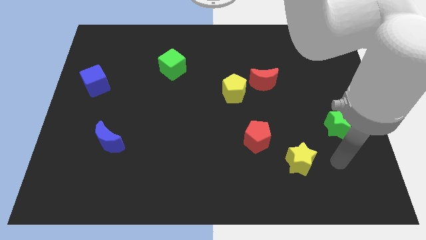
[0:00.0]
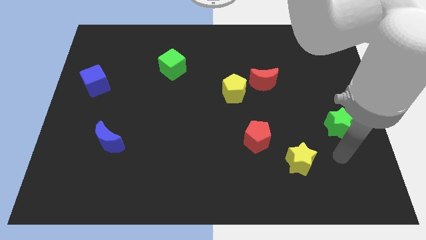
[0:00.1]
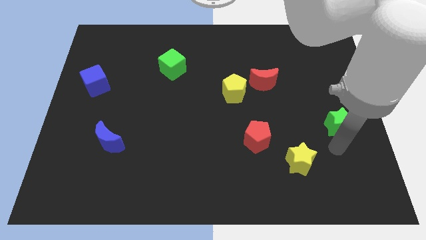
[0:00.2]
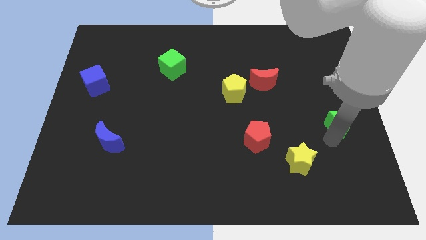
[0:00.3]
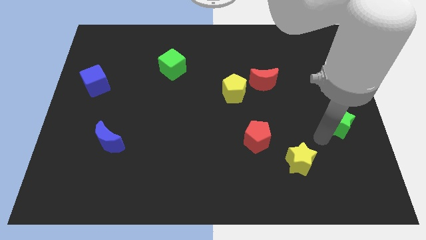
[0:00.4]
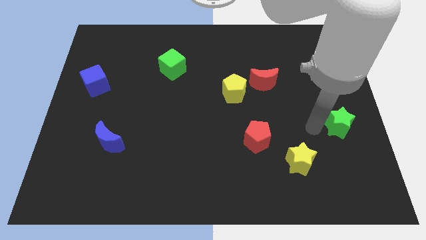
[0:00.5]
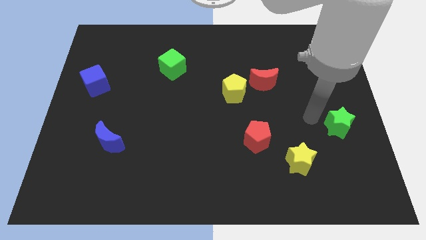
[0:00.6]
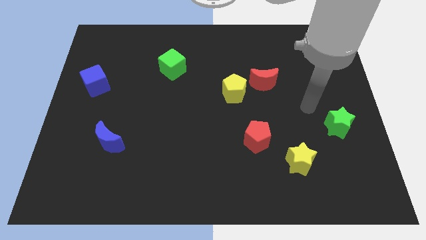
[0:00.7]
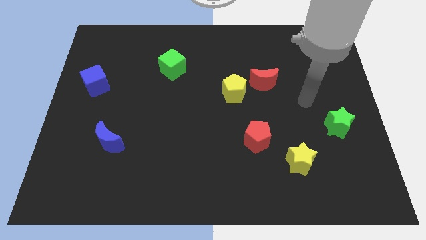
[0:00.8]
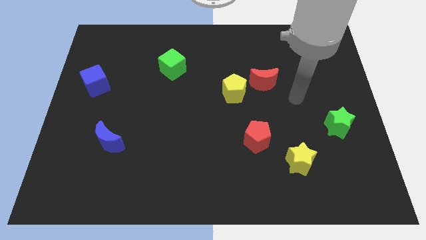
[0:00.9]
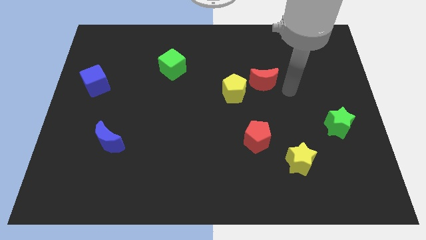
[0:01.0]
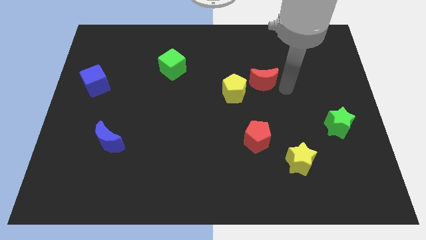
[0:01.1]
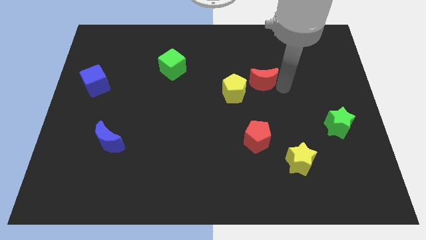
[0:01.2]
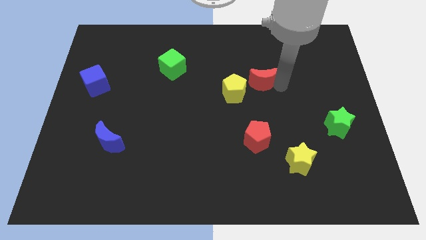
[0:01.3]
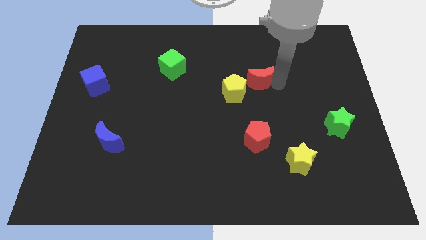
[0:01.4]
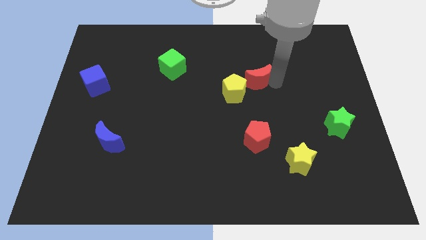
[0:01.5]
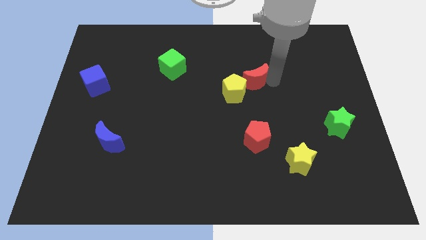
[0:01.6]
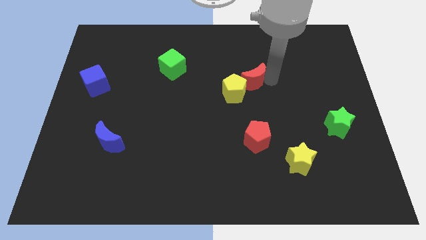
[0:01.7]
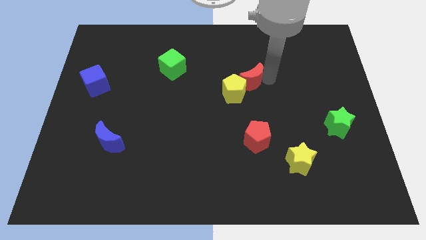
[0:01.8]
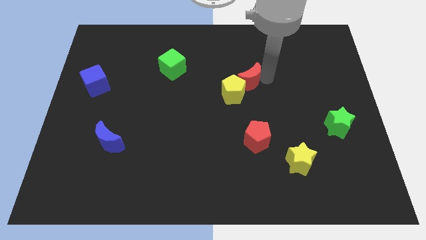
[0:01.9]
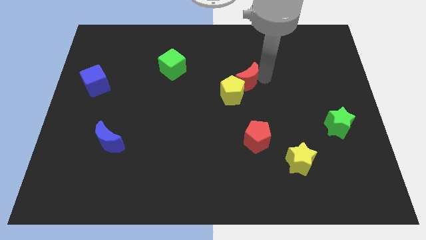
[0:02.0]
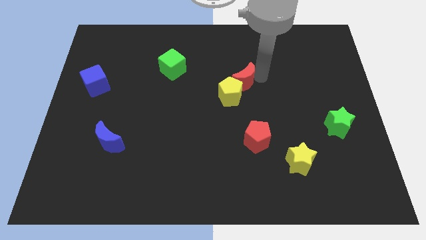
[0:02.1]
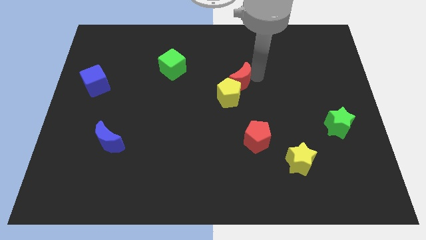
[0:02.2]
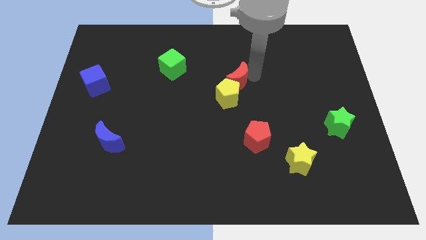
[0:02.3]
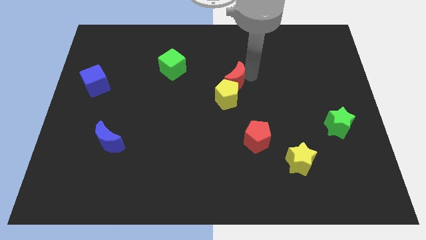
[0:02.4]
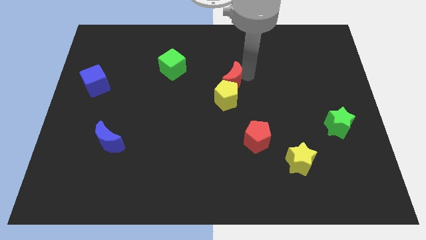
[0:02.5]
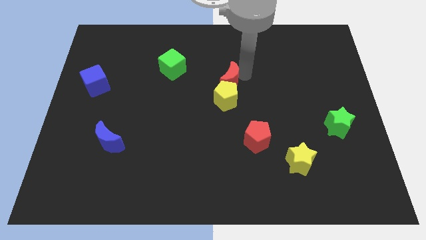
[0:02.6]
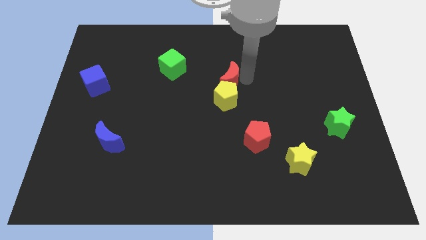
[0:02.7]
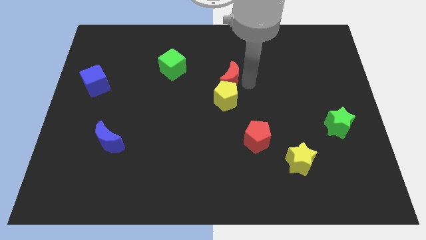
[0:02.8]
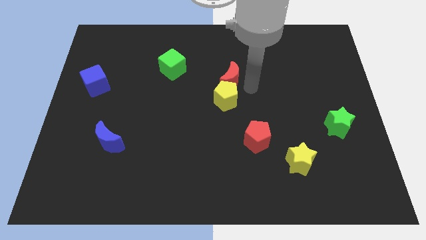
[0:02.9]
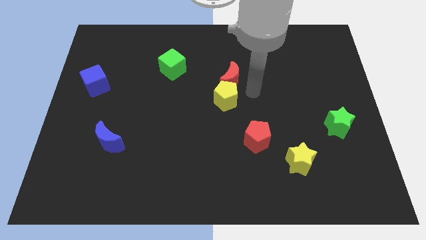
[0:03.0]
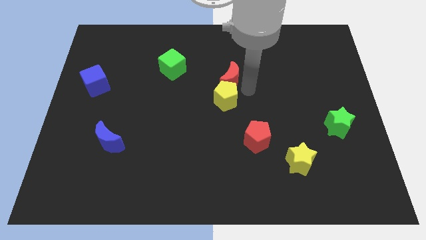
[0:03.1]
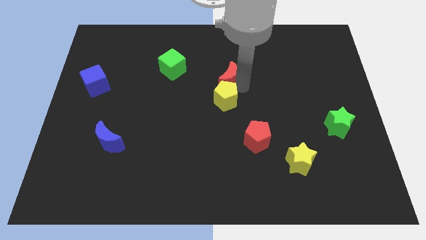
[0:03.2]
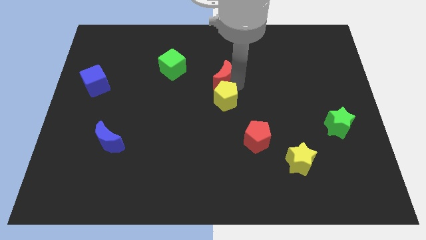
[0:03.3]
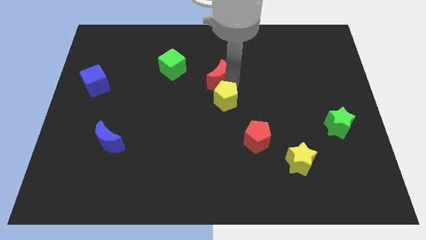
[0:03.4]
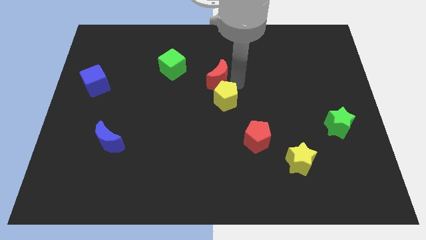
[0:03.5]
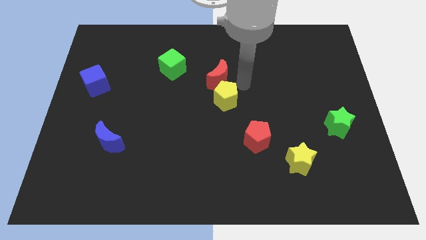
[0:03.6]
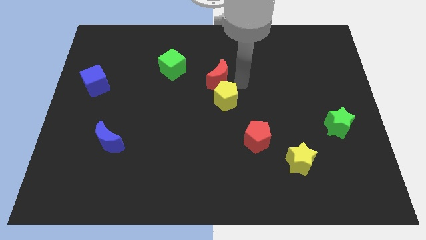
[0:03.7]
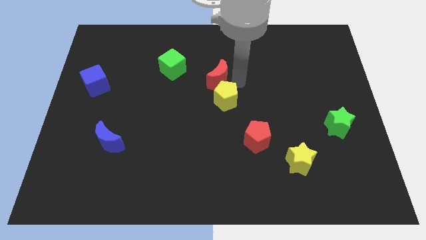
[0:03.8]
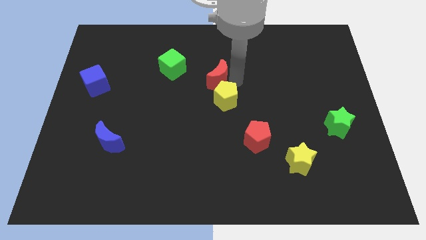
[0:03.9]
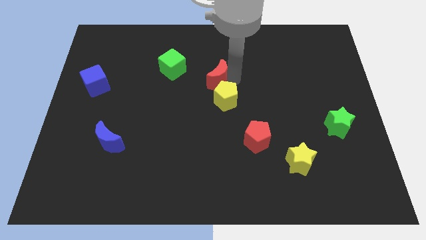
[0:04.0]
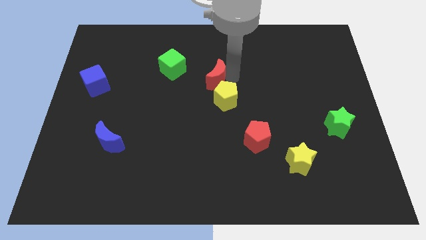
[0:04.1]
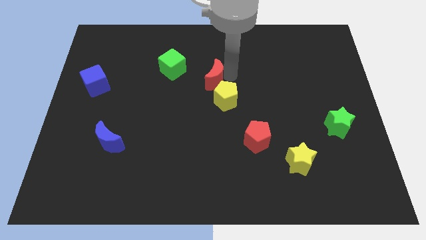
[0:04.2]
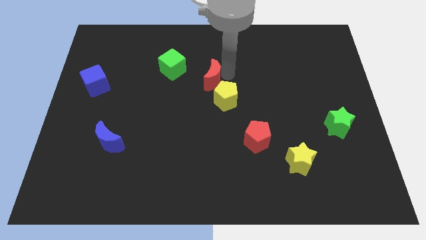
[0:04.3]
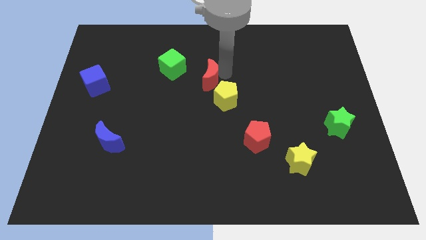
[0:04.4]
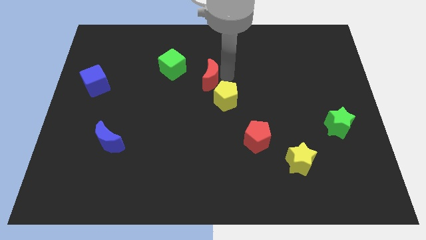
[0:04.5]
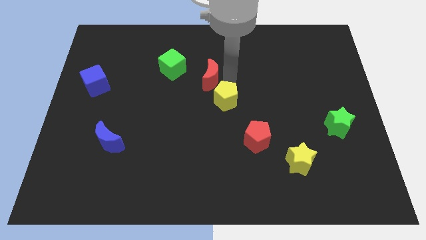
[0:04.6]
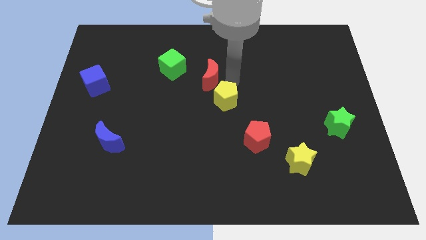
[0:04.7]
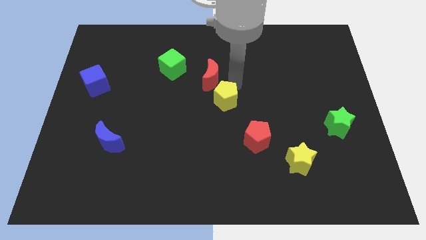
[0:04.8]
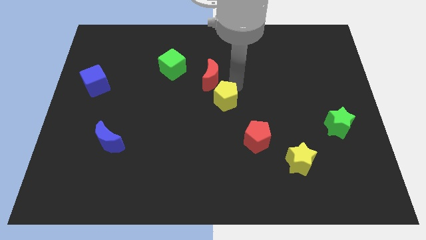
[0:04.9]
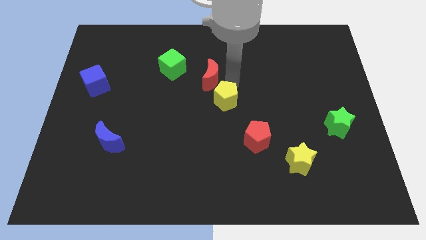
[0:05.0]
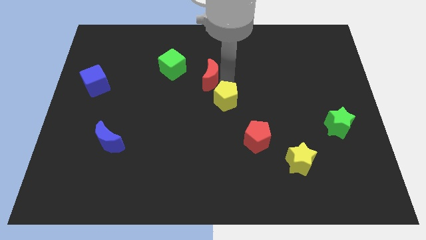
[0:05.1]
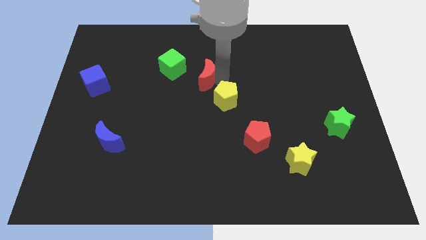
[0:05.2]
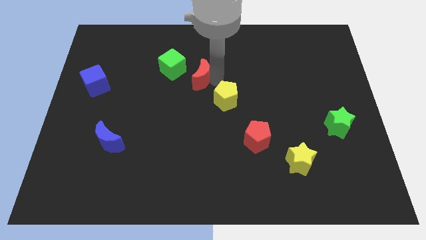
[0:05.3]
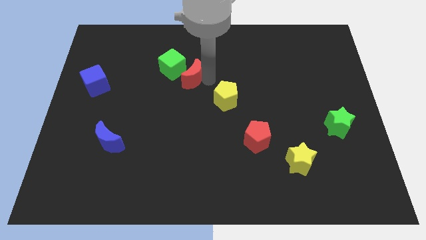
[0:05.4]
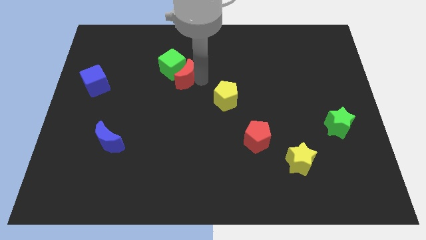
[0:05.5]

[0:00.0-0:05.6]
put the red moon to the green cube

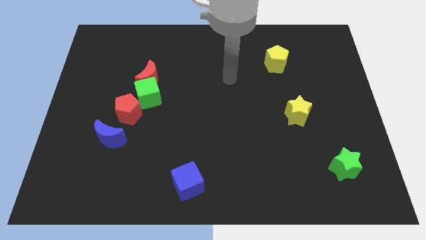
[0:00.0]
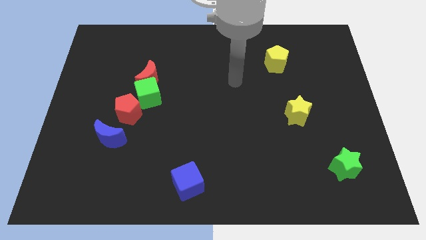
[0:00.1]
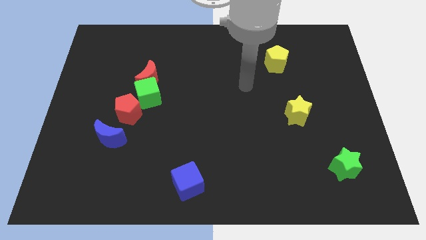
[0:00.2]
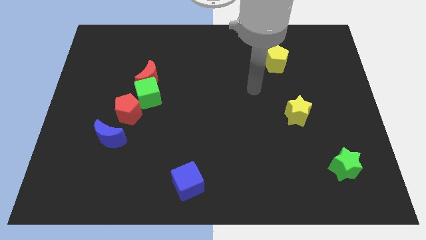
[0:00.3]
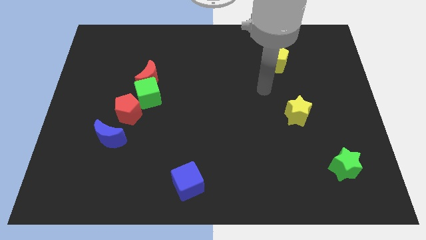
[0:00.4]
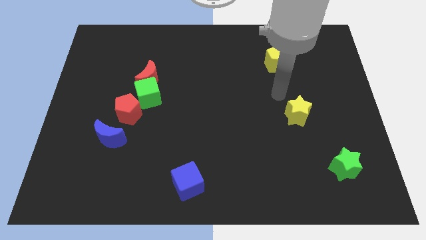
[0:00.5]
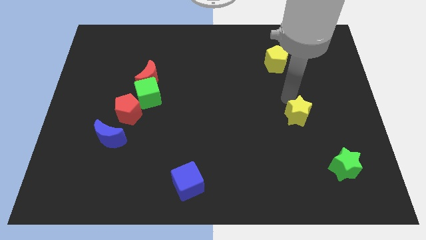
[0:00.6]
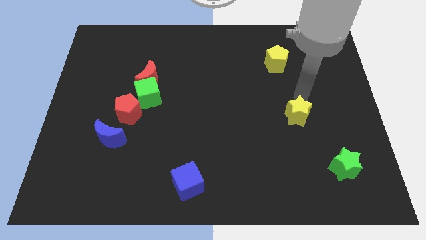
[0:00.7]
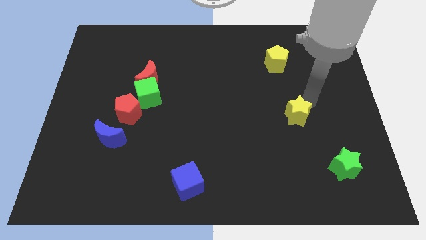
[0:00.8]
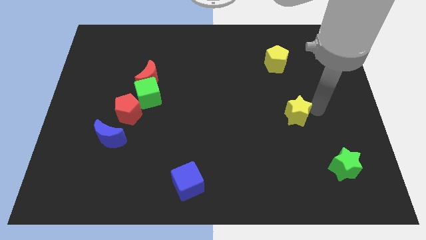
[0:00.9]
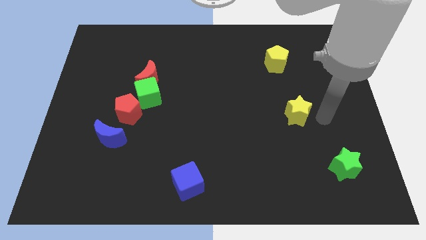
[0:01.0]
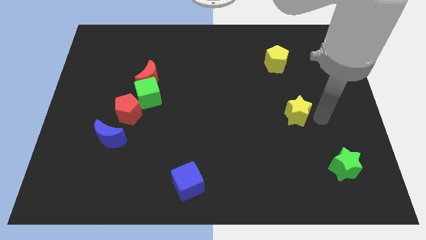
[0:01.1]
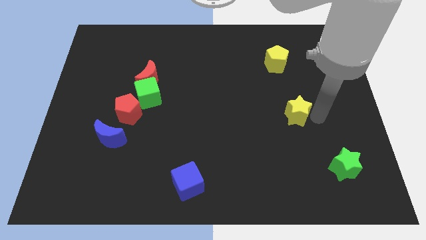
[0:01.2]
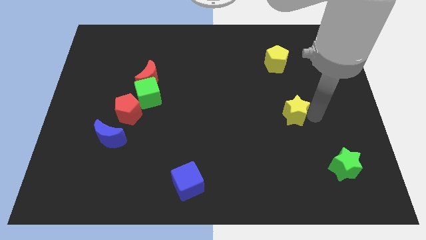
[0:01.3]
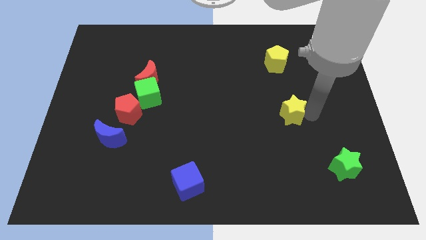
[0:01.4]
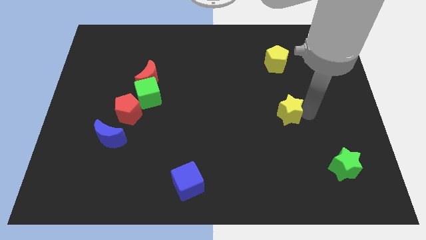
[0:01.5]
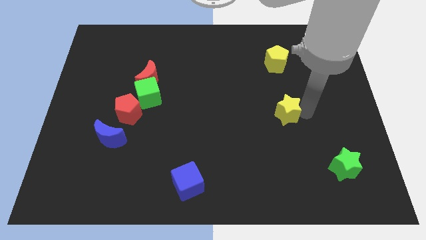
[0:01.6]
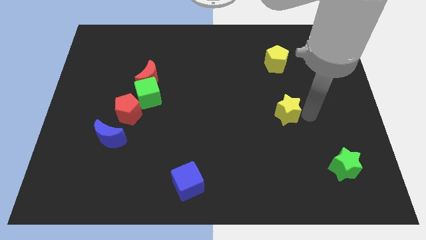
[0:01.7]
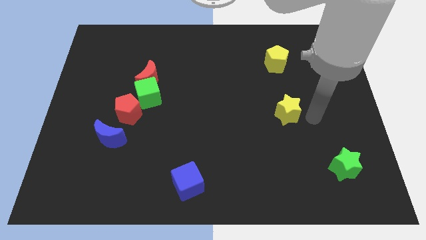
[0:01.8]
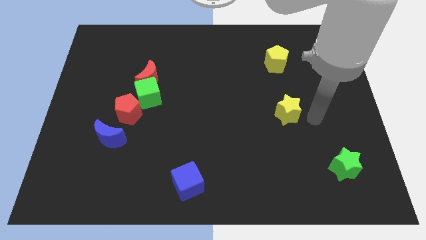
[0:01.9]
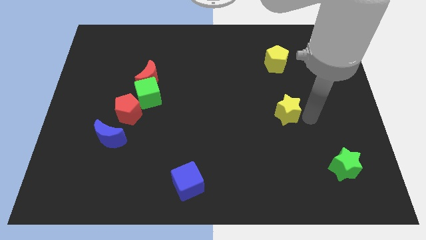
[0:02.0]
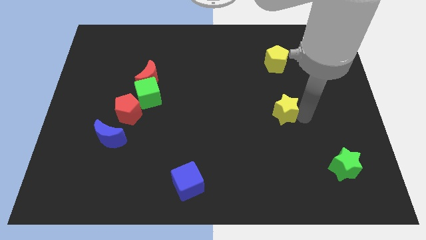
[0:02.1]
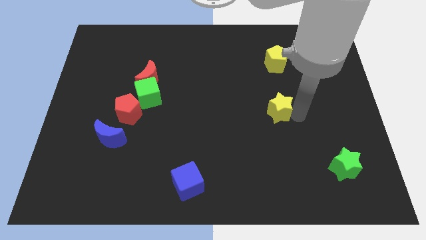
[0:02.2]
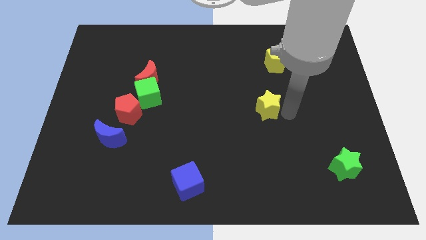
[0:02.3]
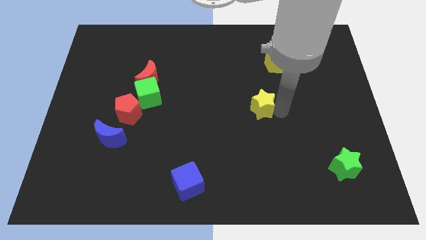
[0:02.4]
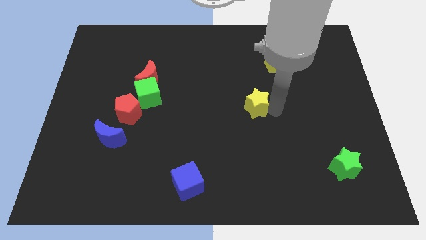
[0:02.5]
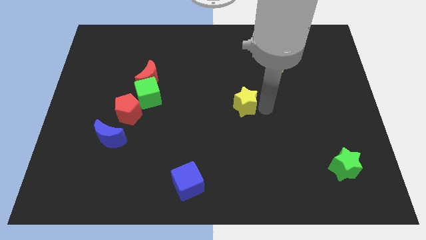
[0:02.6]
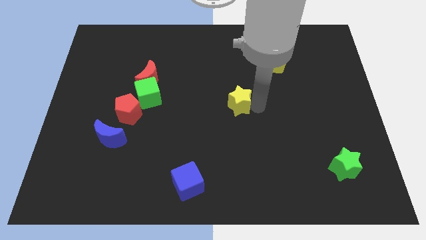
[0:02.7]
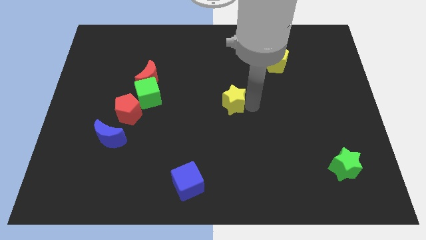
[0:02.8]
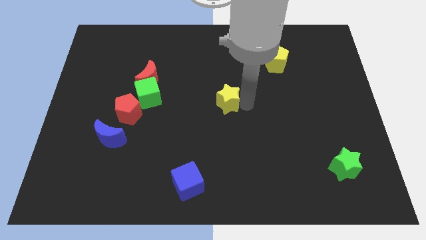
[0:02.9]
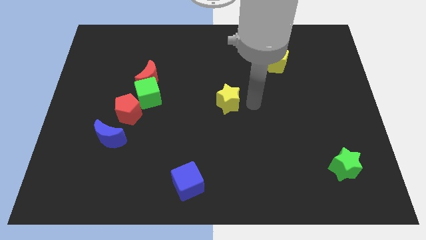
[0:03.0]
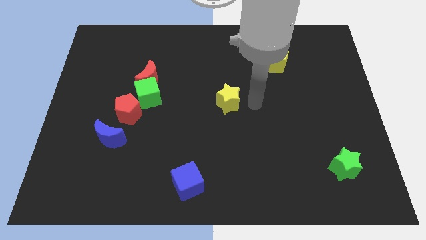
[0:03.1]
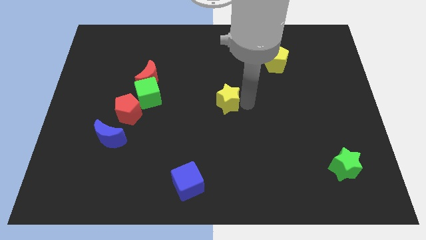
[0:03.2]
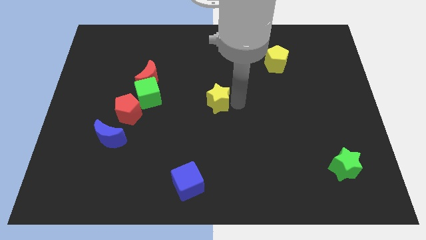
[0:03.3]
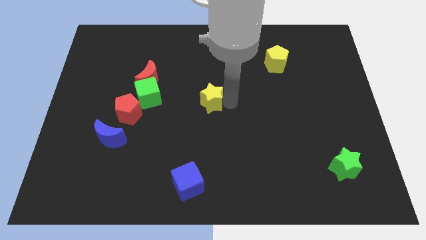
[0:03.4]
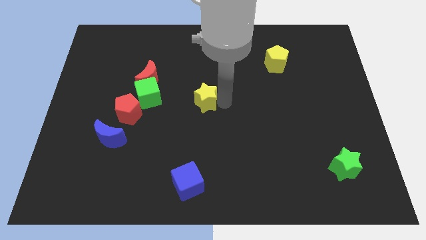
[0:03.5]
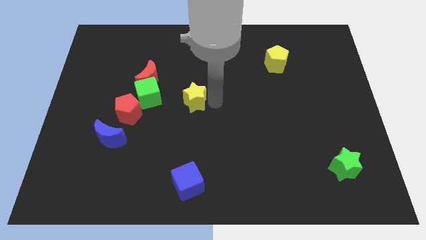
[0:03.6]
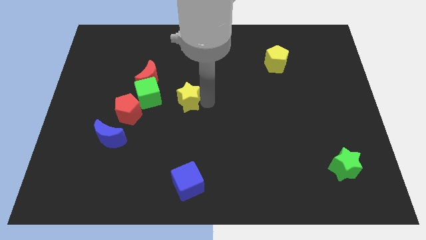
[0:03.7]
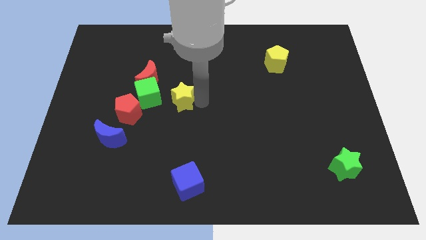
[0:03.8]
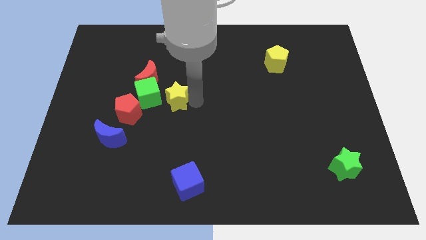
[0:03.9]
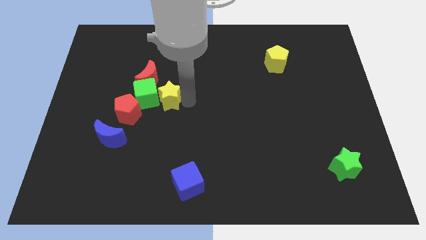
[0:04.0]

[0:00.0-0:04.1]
put the yellow star to the green cube
